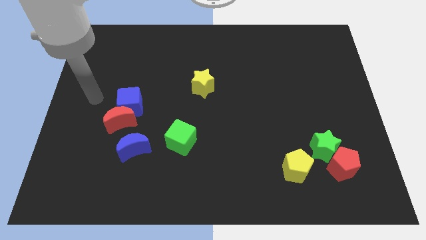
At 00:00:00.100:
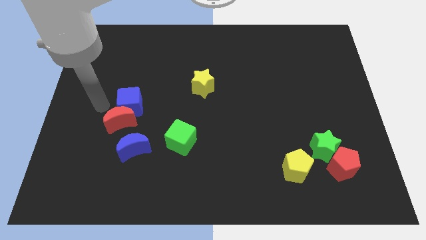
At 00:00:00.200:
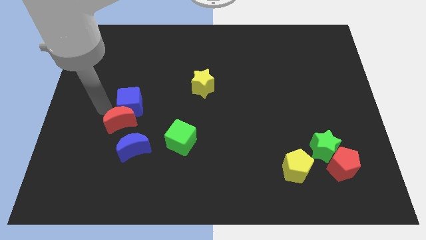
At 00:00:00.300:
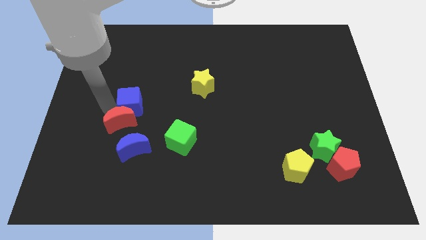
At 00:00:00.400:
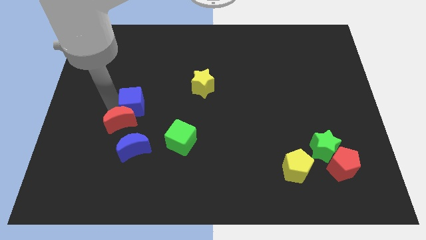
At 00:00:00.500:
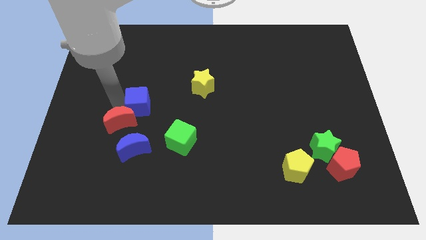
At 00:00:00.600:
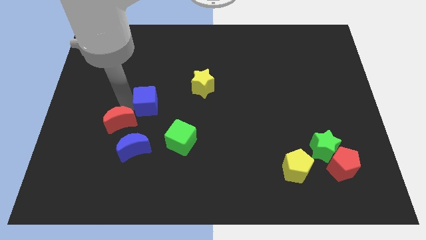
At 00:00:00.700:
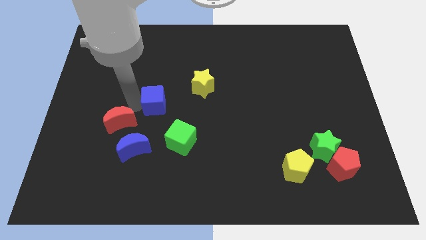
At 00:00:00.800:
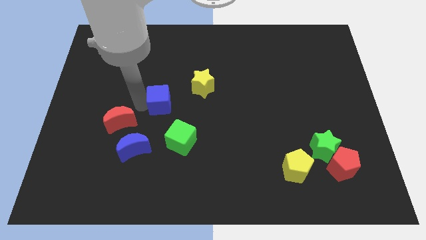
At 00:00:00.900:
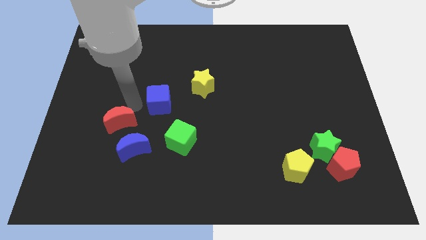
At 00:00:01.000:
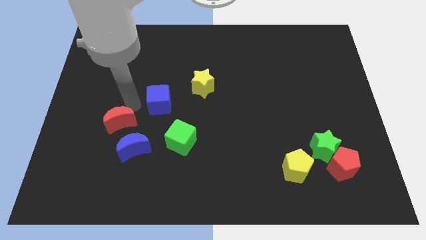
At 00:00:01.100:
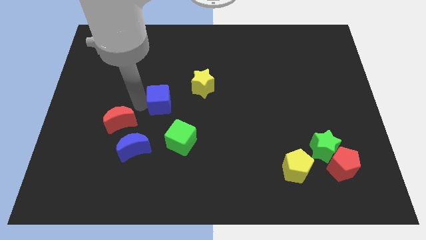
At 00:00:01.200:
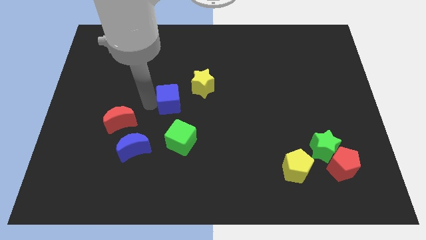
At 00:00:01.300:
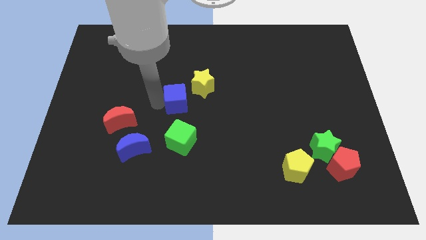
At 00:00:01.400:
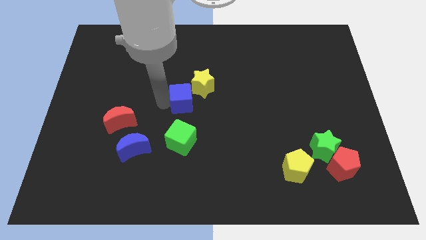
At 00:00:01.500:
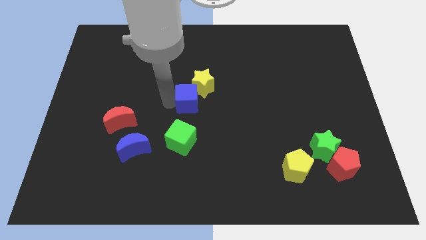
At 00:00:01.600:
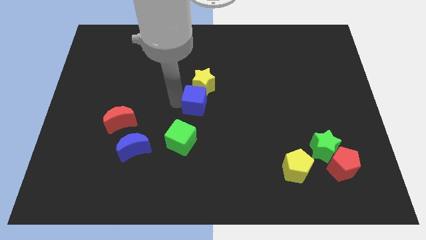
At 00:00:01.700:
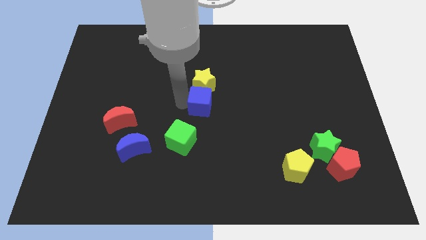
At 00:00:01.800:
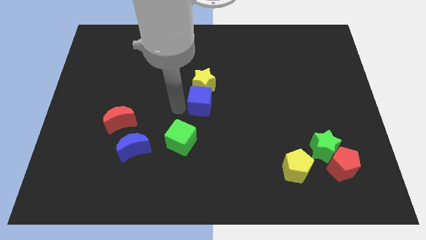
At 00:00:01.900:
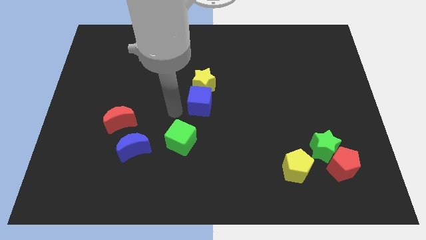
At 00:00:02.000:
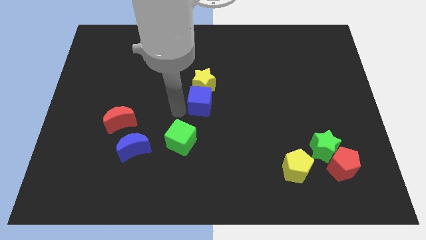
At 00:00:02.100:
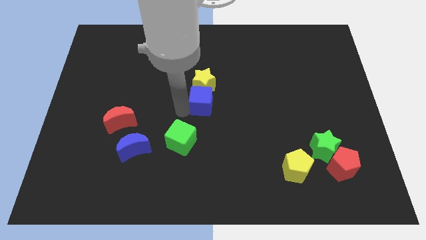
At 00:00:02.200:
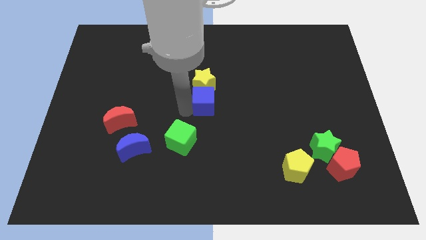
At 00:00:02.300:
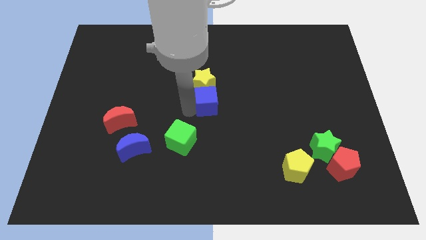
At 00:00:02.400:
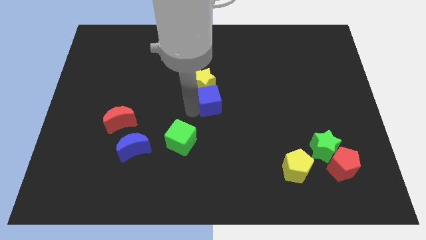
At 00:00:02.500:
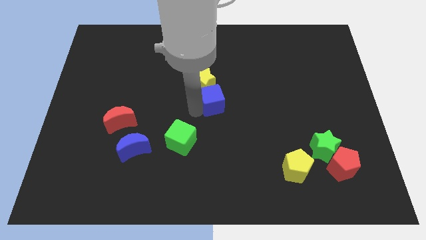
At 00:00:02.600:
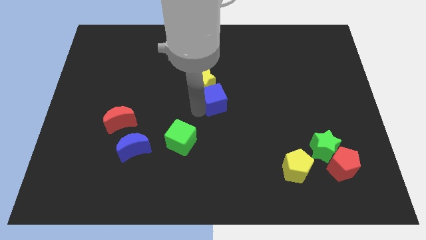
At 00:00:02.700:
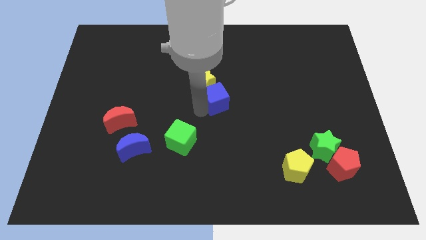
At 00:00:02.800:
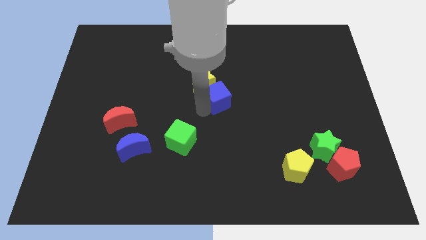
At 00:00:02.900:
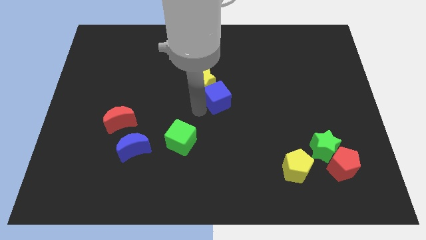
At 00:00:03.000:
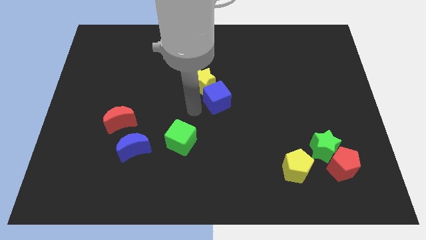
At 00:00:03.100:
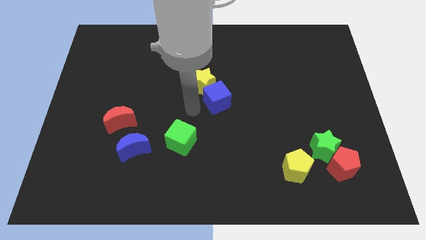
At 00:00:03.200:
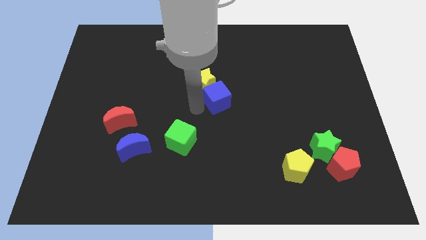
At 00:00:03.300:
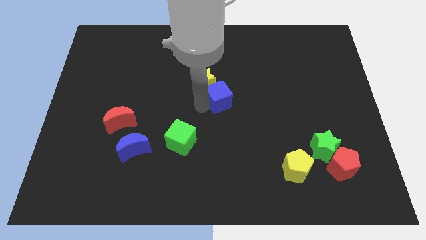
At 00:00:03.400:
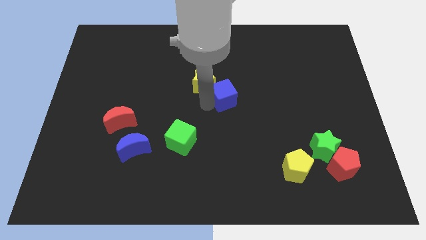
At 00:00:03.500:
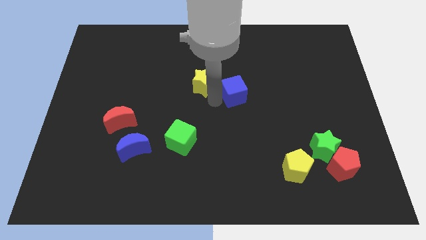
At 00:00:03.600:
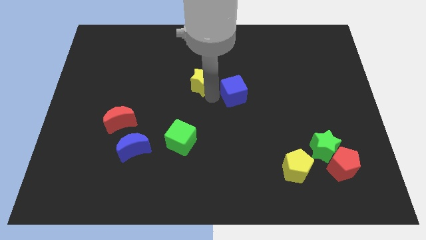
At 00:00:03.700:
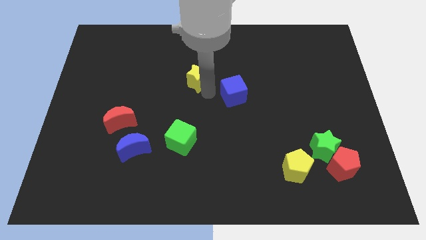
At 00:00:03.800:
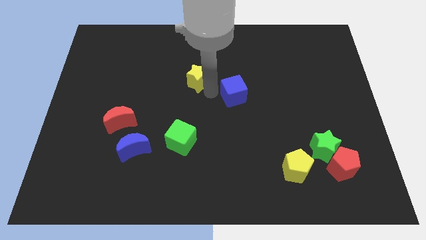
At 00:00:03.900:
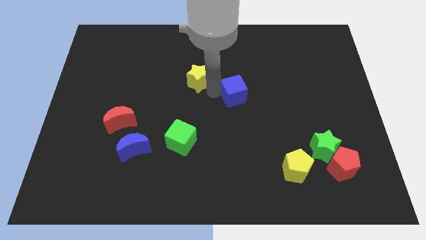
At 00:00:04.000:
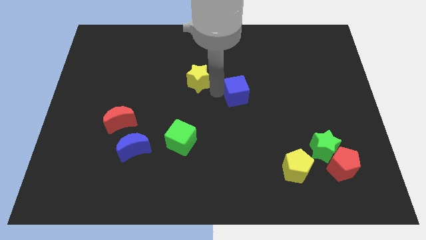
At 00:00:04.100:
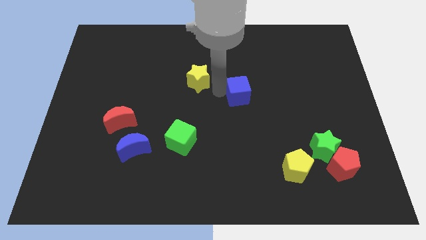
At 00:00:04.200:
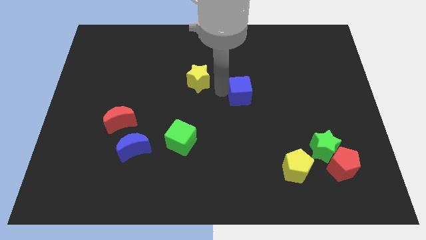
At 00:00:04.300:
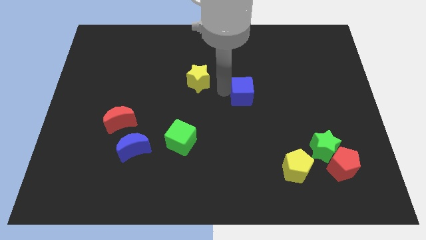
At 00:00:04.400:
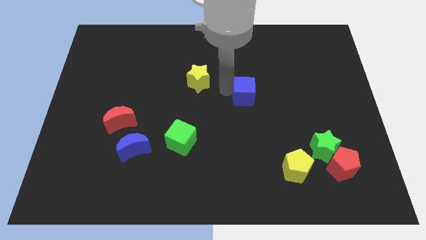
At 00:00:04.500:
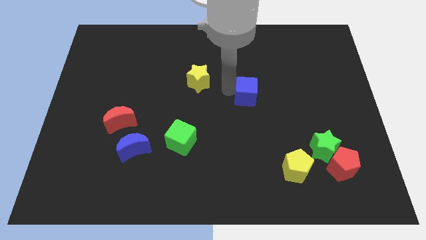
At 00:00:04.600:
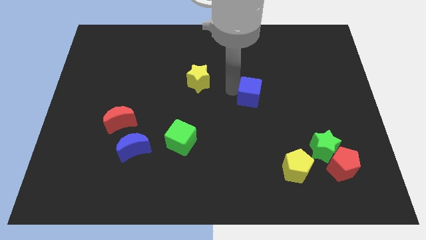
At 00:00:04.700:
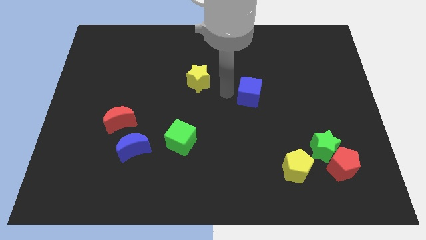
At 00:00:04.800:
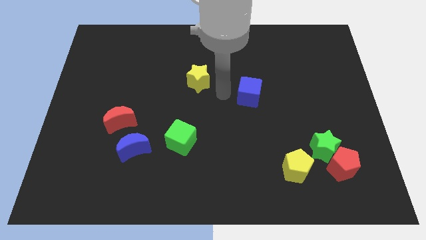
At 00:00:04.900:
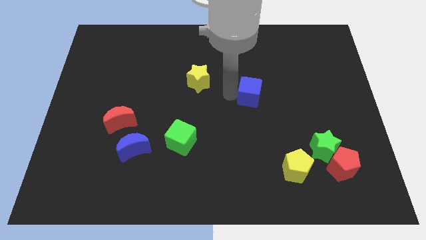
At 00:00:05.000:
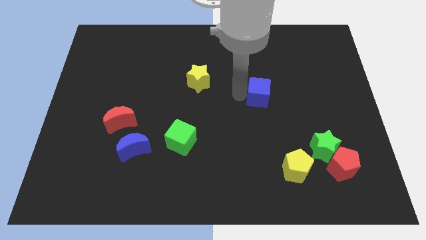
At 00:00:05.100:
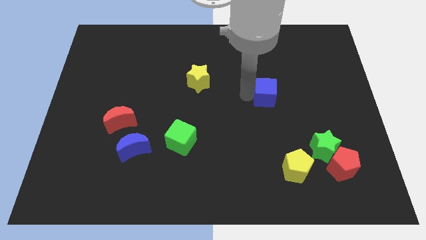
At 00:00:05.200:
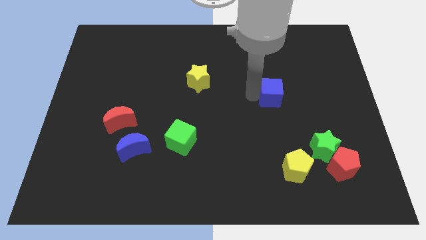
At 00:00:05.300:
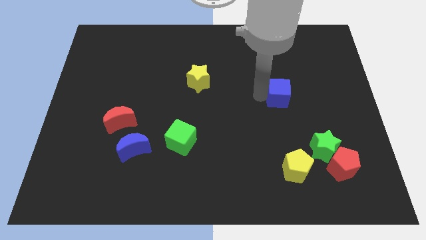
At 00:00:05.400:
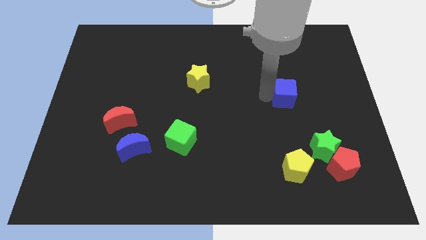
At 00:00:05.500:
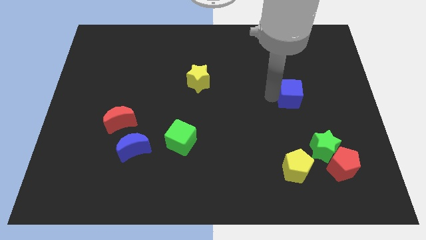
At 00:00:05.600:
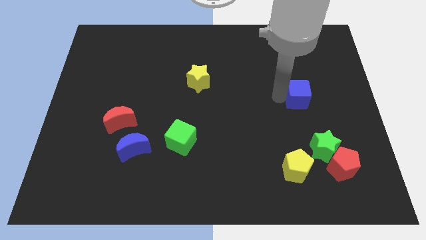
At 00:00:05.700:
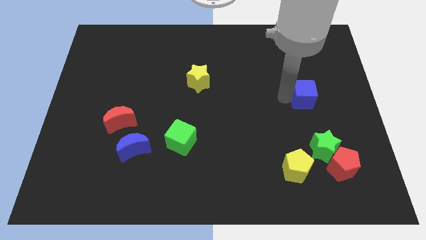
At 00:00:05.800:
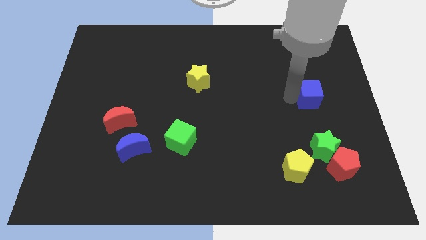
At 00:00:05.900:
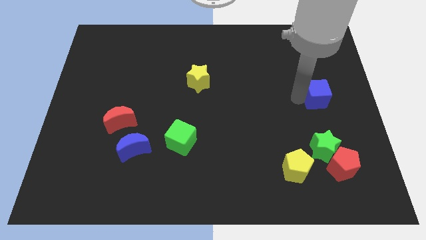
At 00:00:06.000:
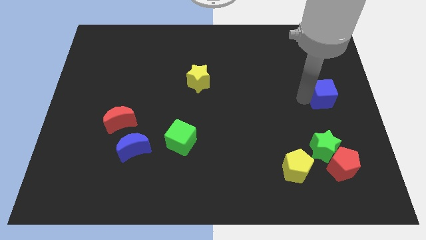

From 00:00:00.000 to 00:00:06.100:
move the blue cube to the right side
